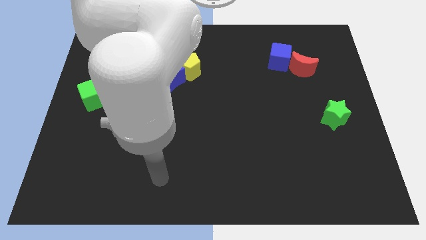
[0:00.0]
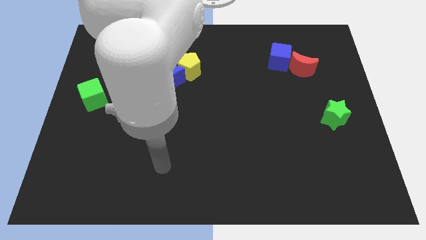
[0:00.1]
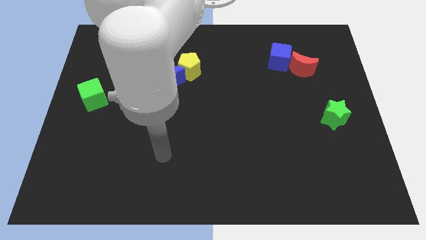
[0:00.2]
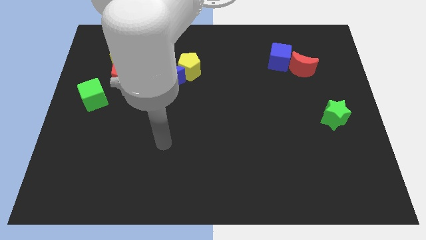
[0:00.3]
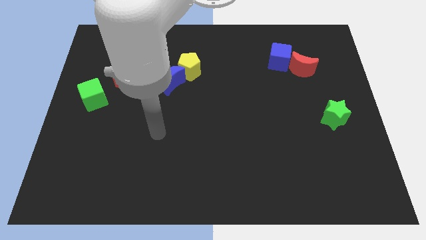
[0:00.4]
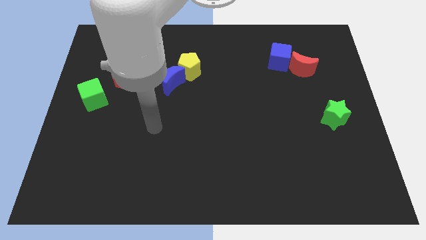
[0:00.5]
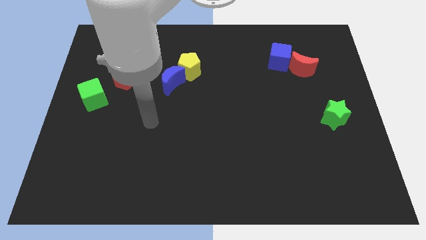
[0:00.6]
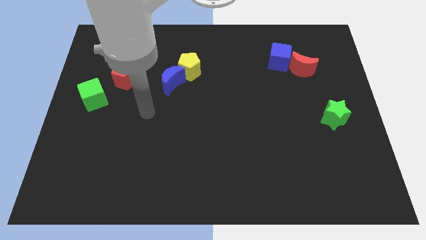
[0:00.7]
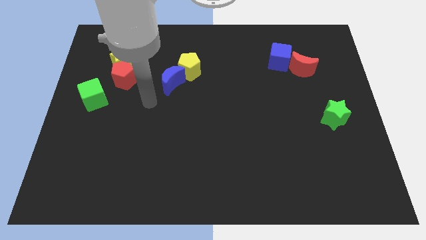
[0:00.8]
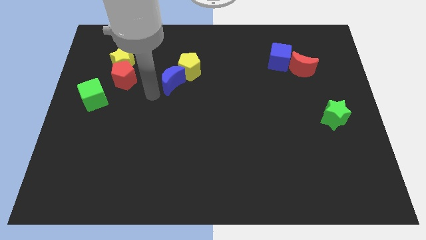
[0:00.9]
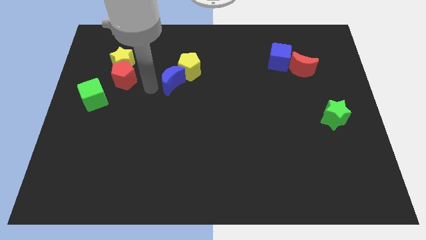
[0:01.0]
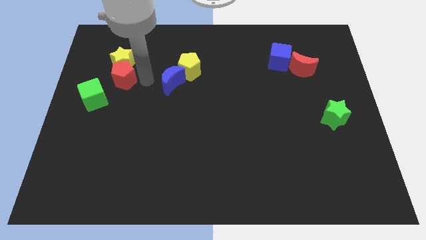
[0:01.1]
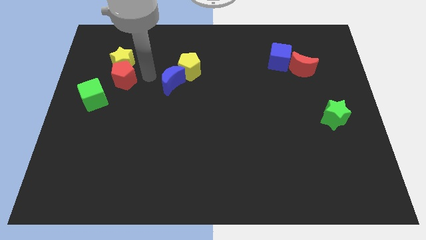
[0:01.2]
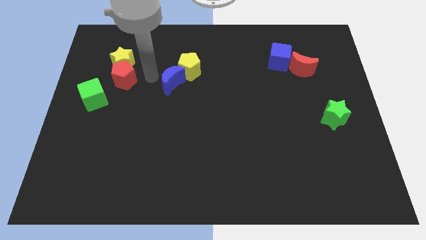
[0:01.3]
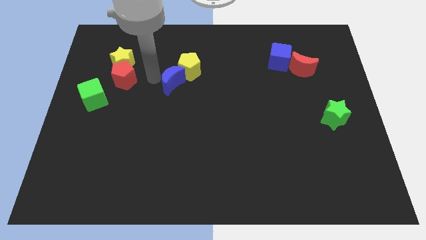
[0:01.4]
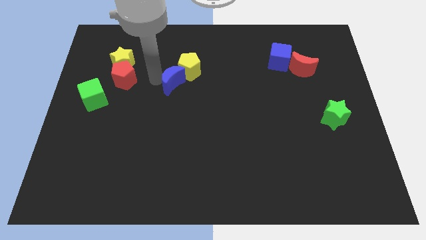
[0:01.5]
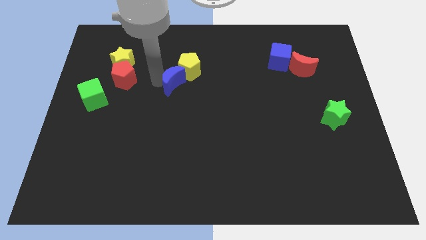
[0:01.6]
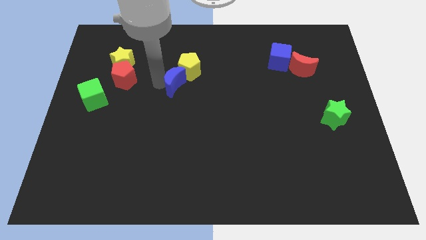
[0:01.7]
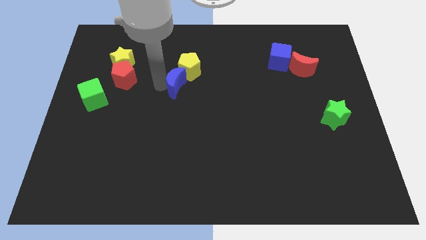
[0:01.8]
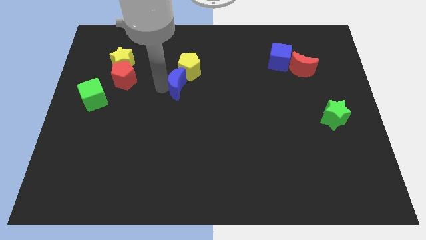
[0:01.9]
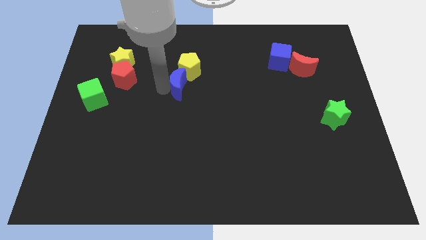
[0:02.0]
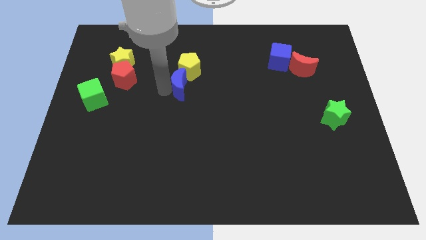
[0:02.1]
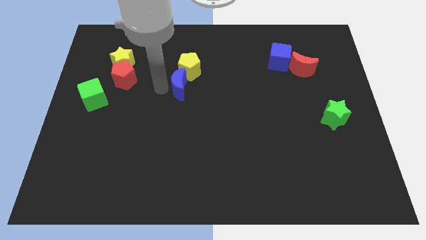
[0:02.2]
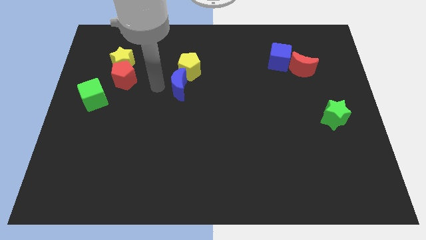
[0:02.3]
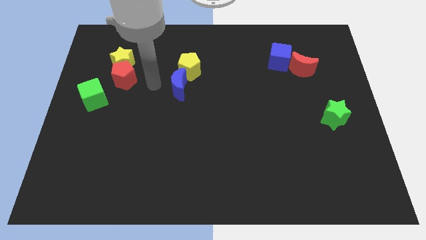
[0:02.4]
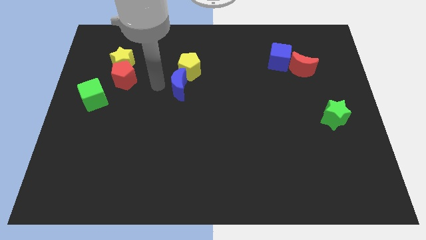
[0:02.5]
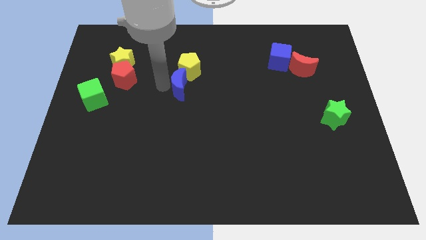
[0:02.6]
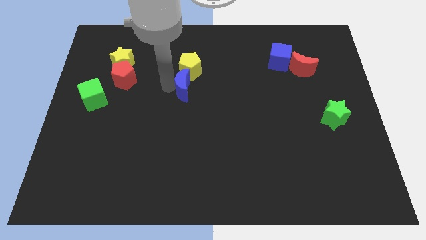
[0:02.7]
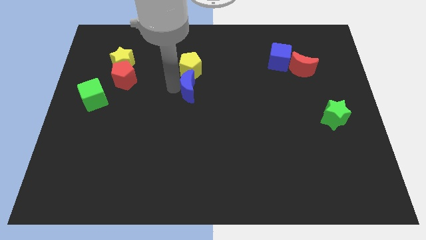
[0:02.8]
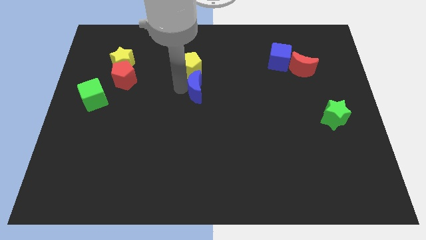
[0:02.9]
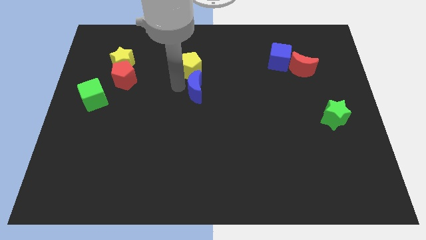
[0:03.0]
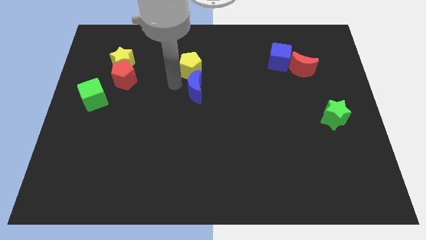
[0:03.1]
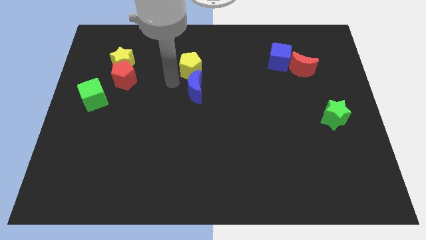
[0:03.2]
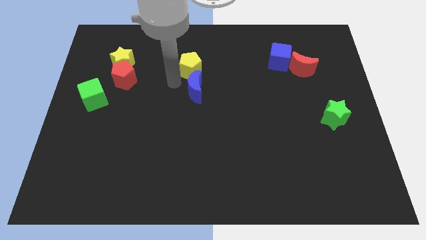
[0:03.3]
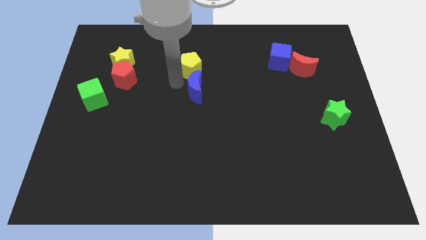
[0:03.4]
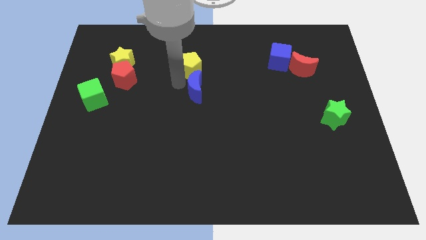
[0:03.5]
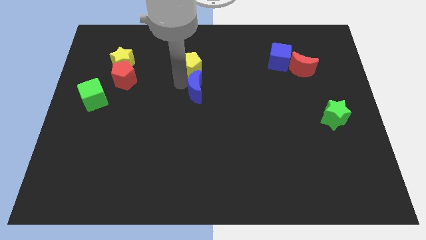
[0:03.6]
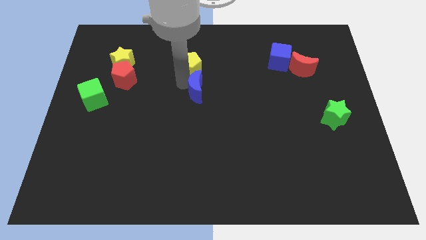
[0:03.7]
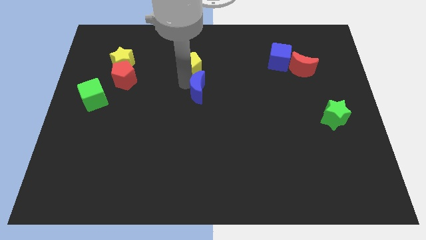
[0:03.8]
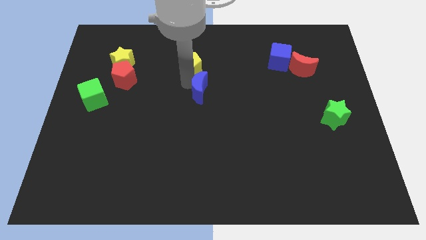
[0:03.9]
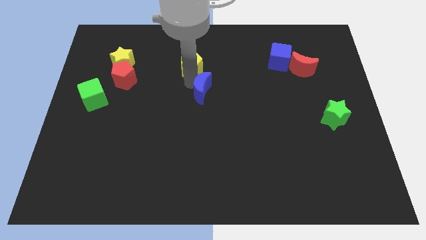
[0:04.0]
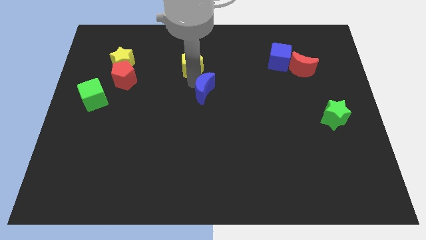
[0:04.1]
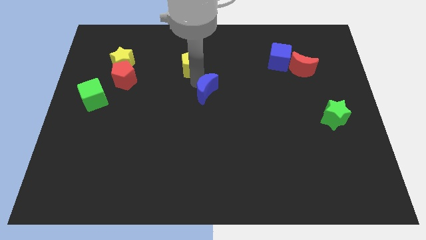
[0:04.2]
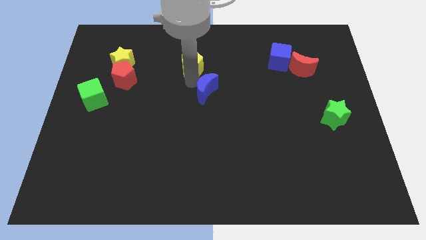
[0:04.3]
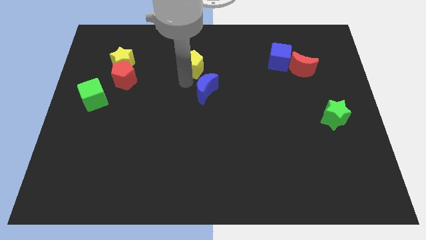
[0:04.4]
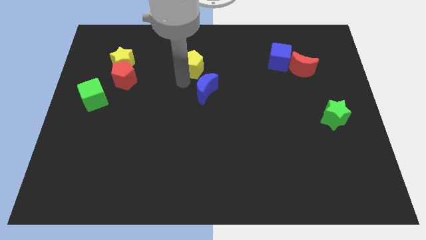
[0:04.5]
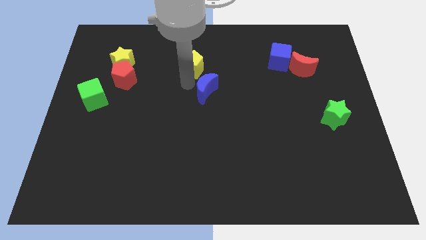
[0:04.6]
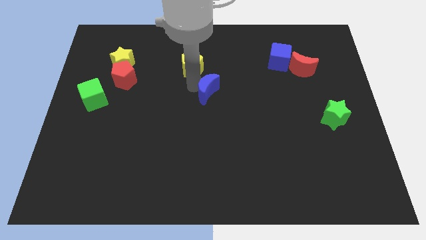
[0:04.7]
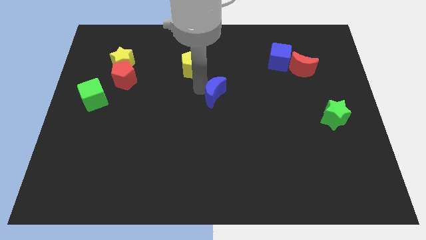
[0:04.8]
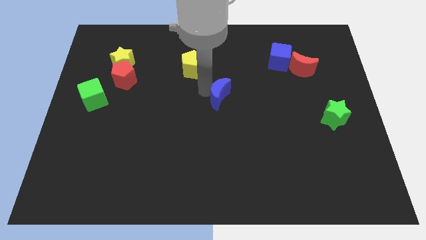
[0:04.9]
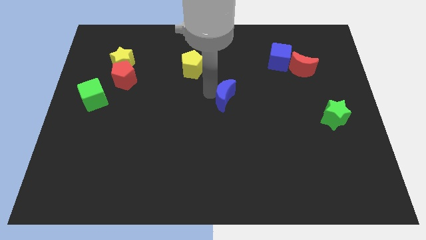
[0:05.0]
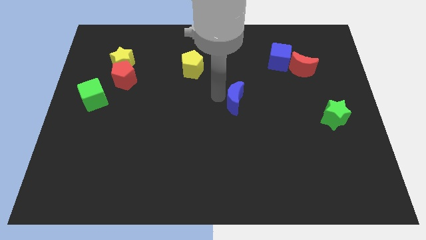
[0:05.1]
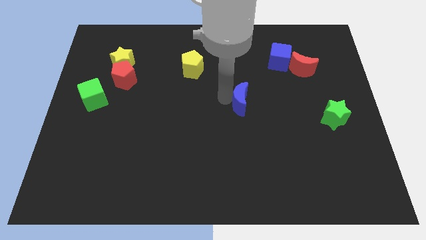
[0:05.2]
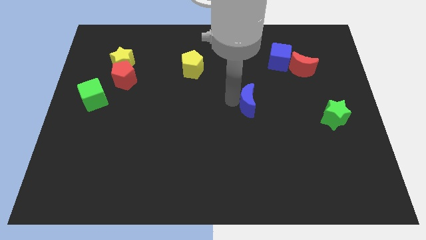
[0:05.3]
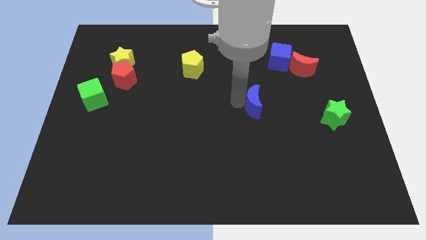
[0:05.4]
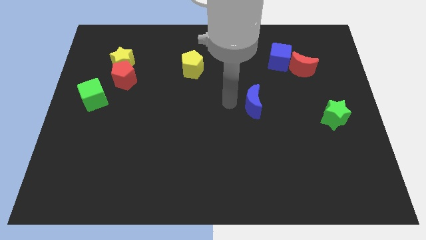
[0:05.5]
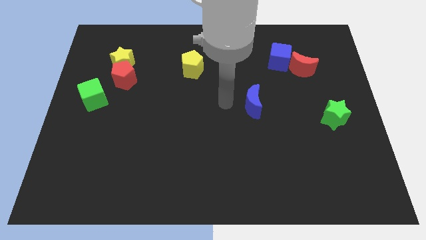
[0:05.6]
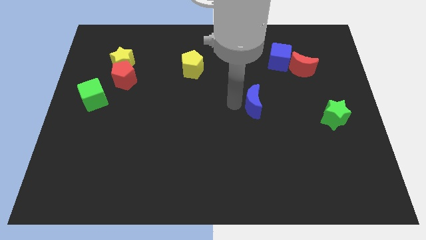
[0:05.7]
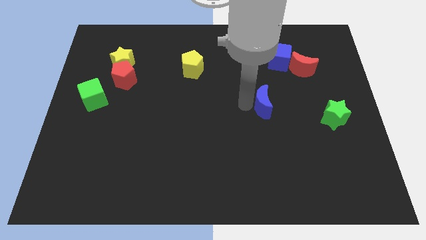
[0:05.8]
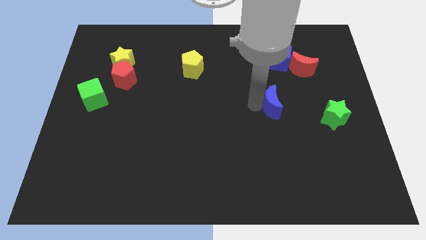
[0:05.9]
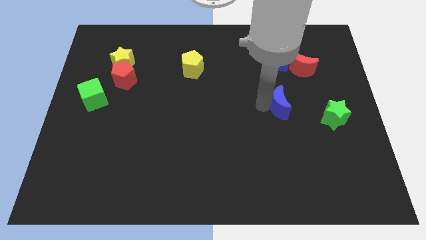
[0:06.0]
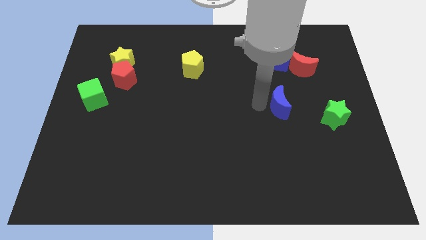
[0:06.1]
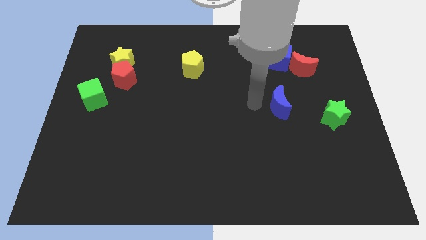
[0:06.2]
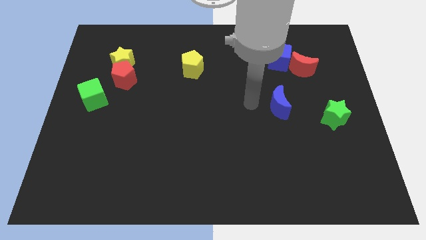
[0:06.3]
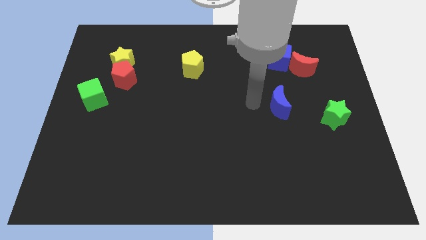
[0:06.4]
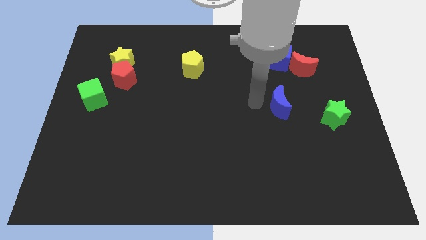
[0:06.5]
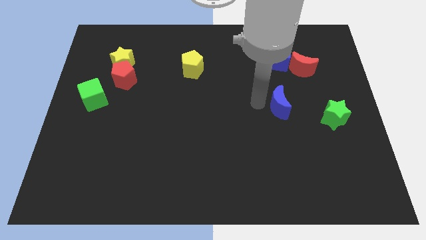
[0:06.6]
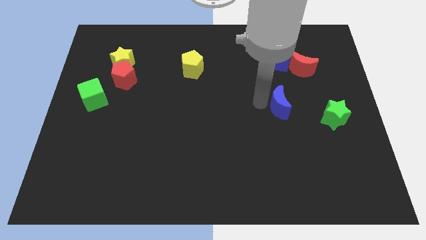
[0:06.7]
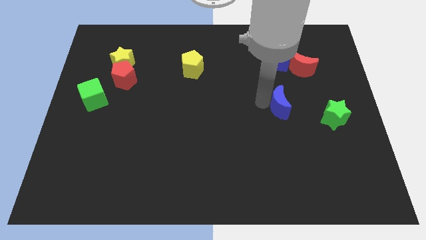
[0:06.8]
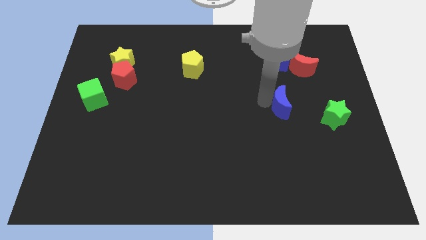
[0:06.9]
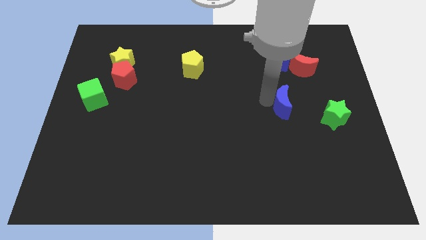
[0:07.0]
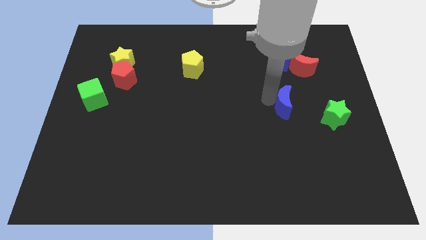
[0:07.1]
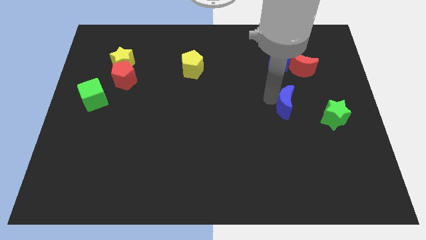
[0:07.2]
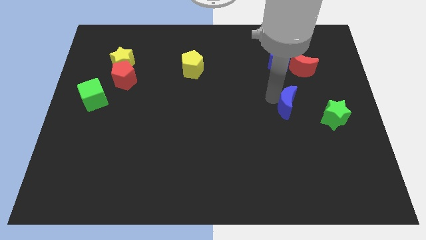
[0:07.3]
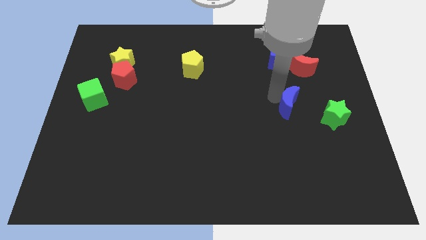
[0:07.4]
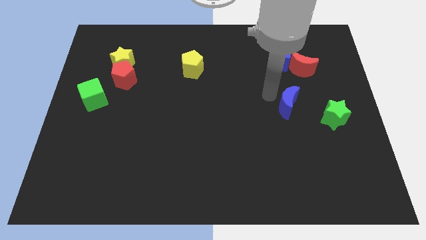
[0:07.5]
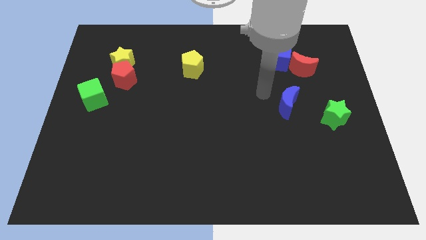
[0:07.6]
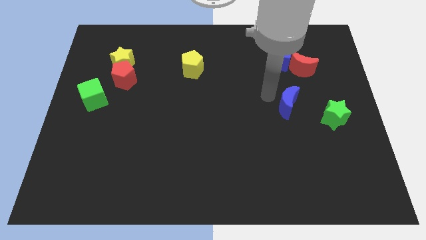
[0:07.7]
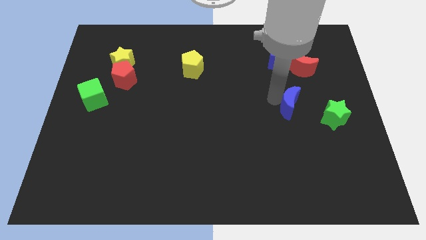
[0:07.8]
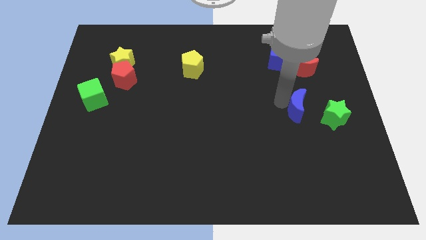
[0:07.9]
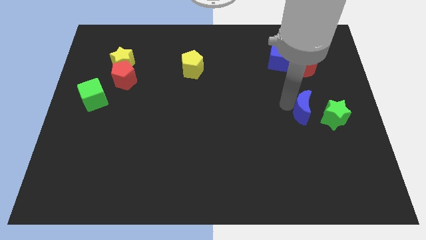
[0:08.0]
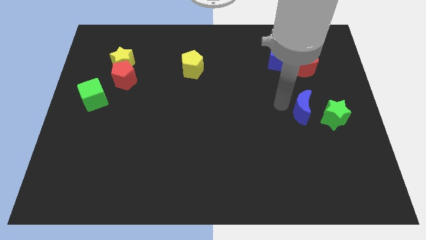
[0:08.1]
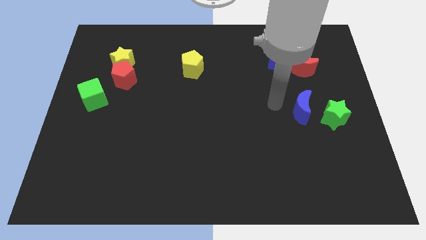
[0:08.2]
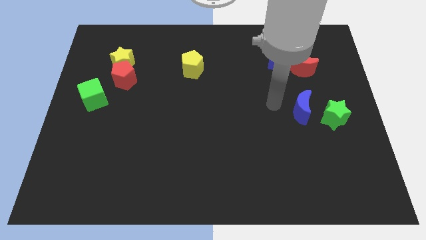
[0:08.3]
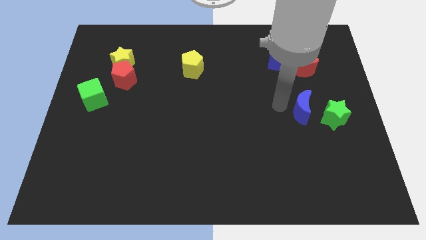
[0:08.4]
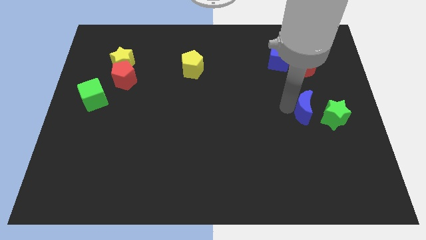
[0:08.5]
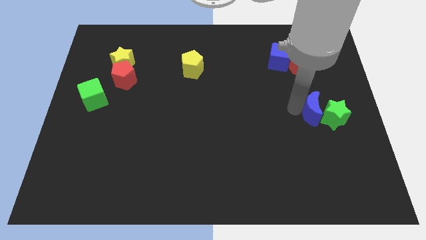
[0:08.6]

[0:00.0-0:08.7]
slide the blue moon close to the green star
